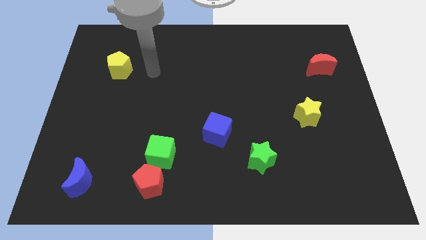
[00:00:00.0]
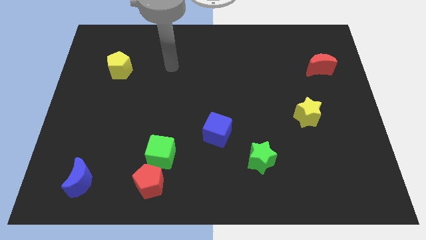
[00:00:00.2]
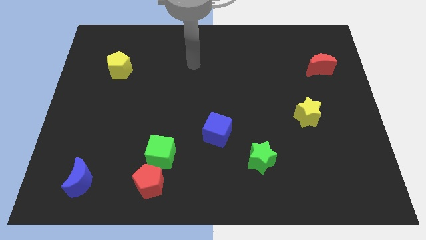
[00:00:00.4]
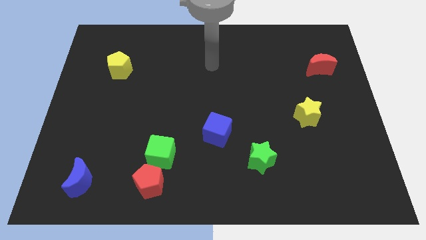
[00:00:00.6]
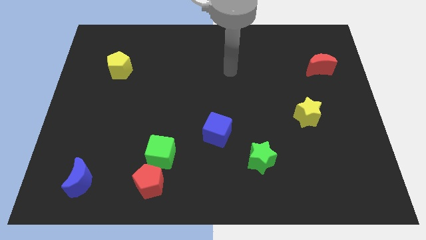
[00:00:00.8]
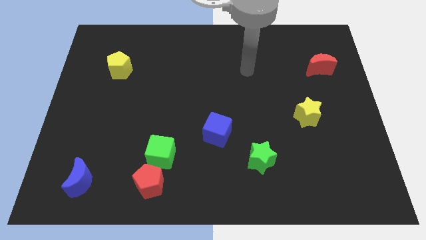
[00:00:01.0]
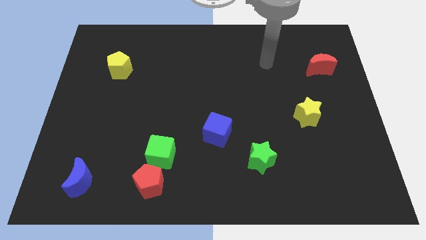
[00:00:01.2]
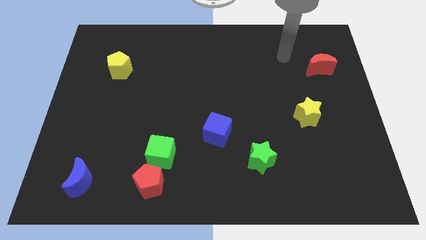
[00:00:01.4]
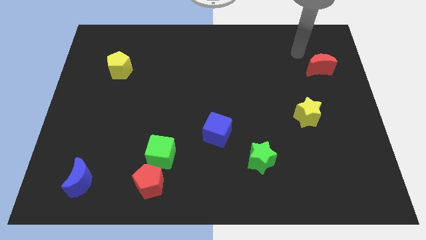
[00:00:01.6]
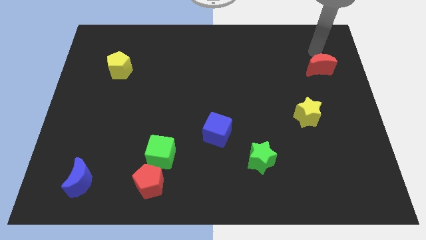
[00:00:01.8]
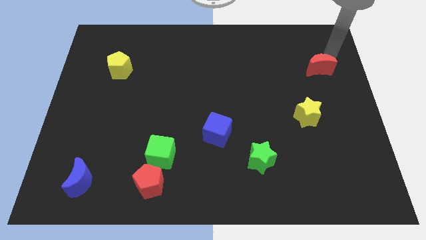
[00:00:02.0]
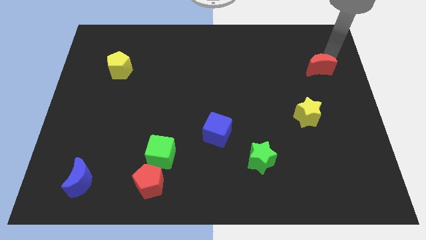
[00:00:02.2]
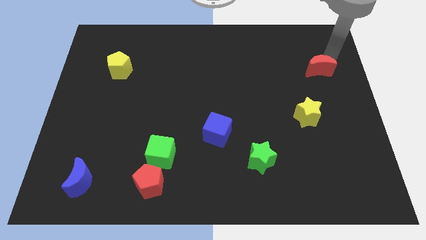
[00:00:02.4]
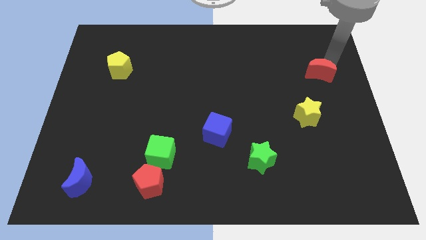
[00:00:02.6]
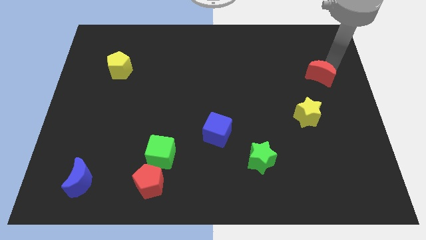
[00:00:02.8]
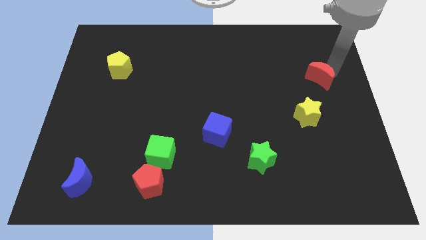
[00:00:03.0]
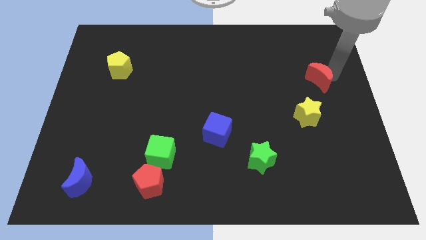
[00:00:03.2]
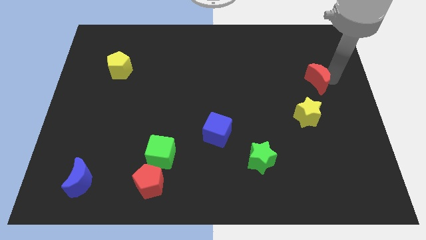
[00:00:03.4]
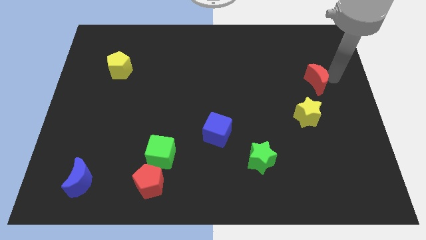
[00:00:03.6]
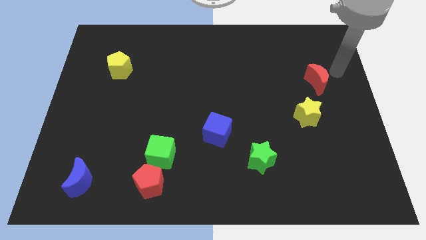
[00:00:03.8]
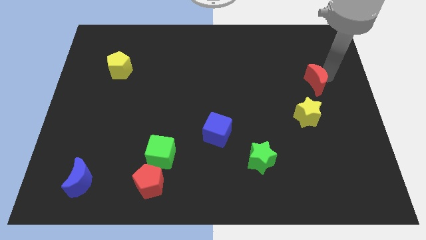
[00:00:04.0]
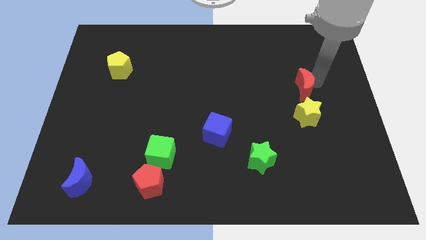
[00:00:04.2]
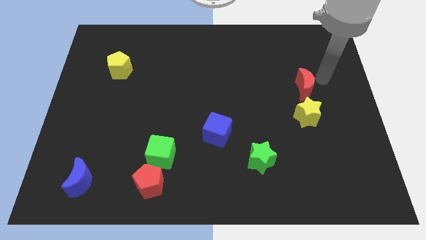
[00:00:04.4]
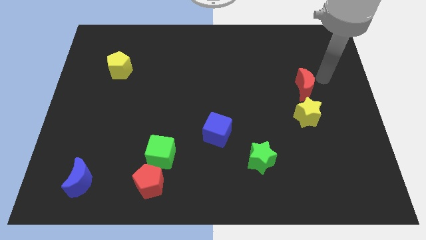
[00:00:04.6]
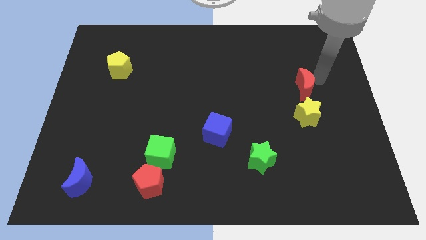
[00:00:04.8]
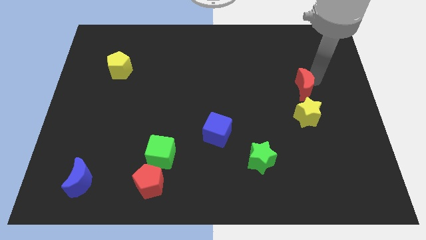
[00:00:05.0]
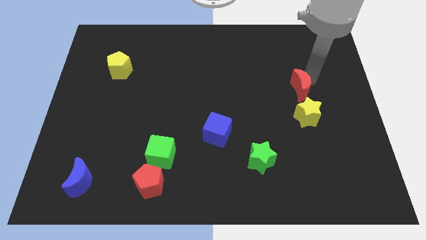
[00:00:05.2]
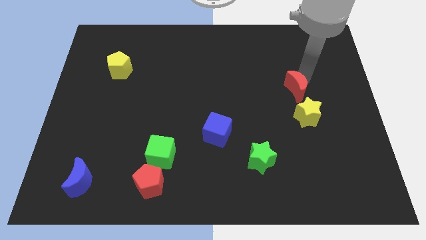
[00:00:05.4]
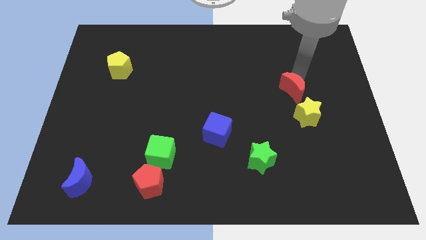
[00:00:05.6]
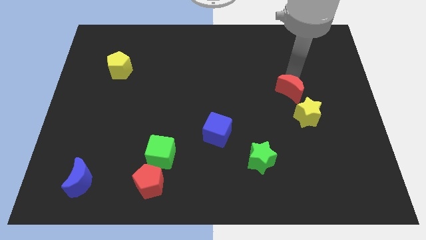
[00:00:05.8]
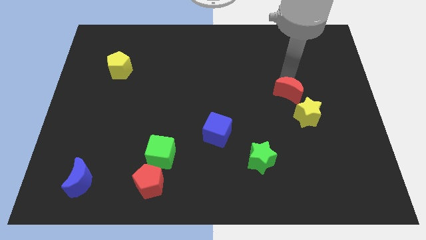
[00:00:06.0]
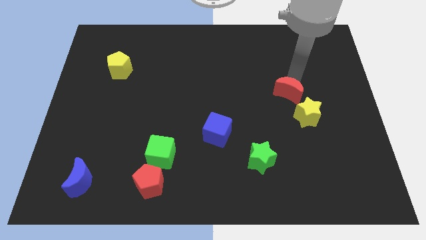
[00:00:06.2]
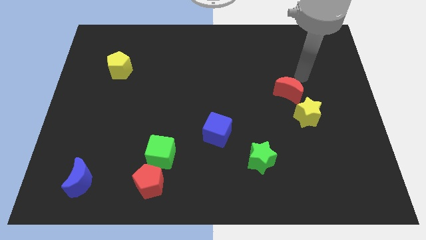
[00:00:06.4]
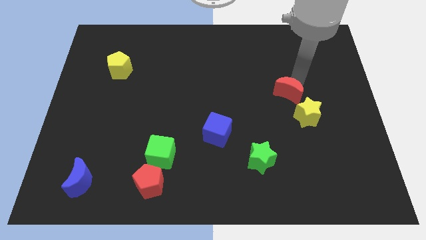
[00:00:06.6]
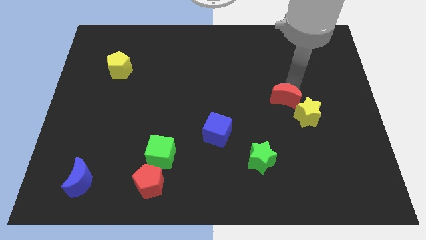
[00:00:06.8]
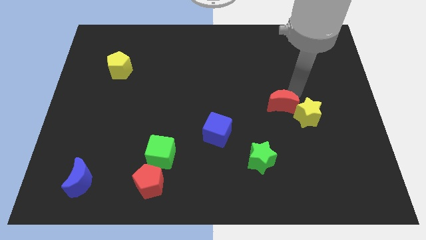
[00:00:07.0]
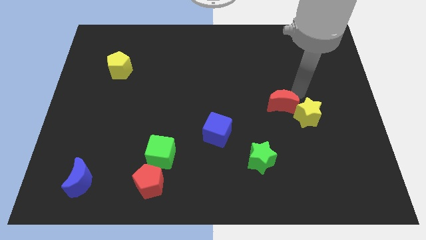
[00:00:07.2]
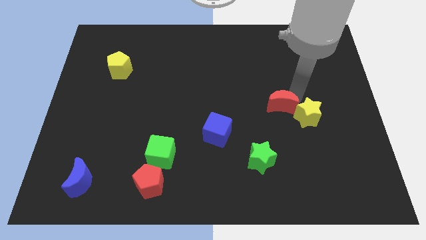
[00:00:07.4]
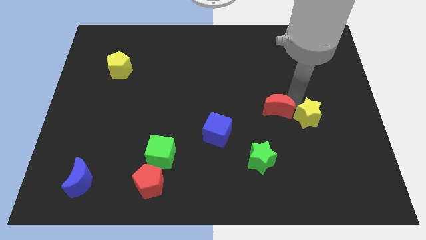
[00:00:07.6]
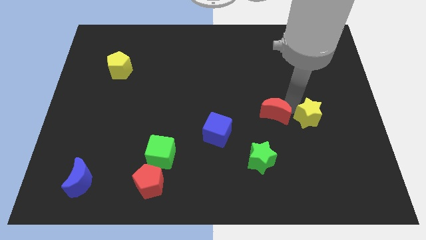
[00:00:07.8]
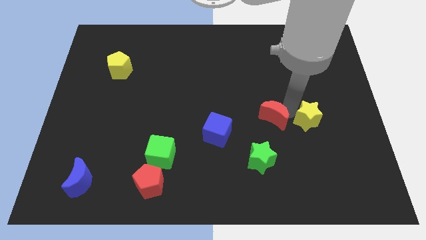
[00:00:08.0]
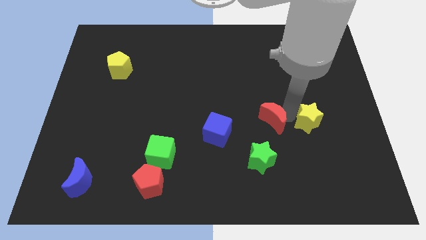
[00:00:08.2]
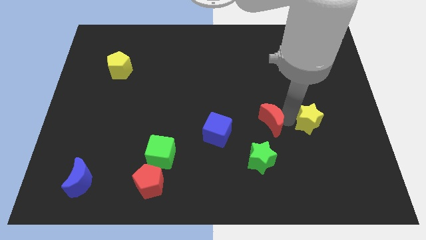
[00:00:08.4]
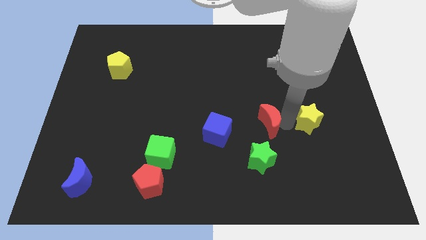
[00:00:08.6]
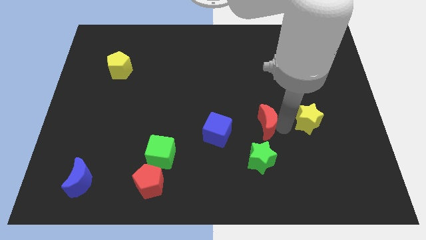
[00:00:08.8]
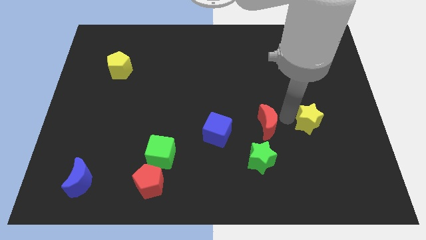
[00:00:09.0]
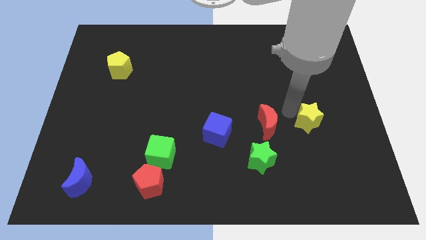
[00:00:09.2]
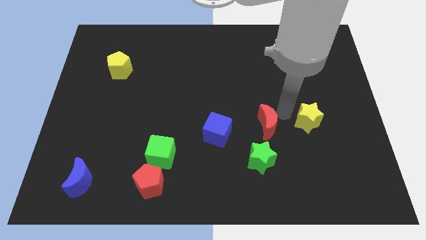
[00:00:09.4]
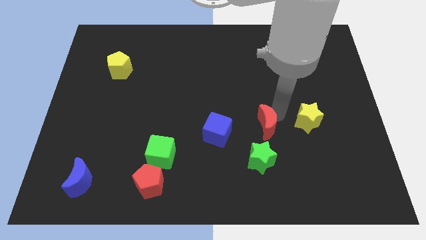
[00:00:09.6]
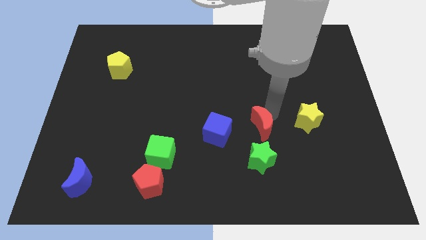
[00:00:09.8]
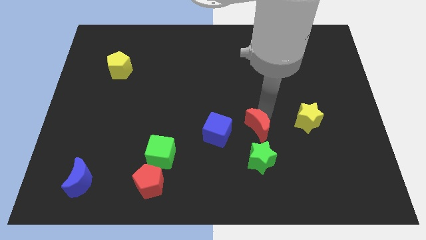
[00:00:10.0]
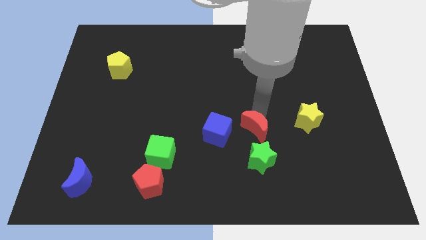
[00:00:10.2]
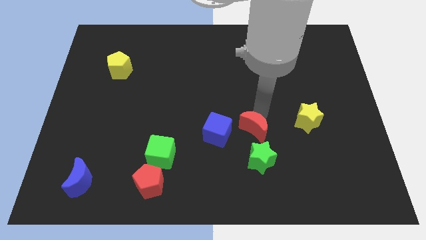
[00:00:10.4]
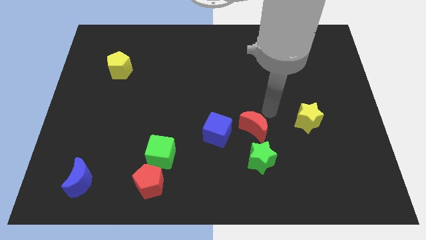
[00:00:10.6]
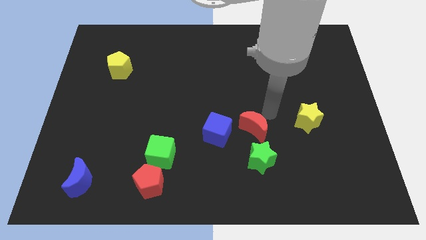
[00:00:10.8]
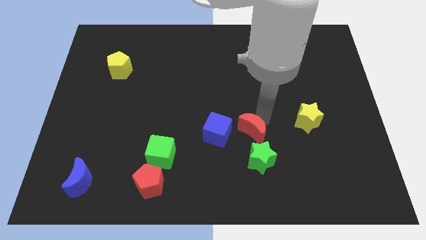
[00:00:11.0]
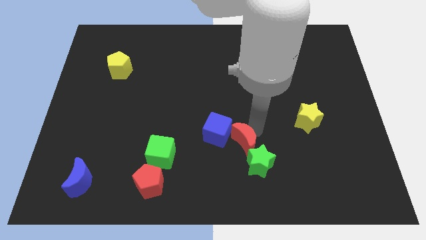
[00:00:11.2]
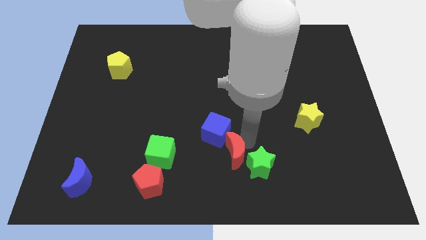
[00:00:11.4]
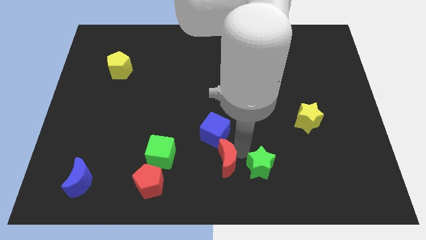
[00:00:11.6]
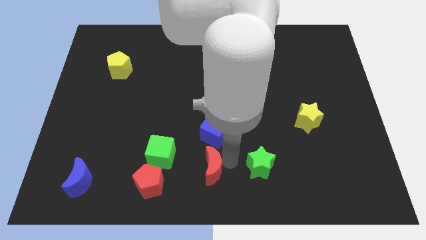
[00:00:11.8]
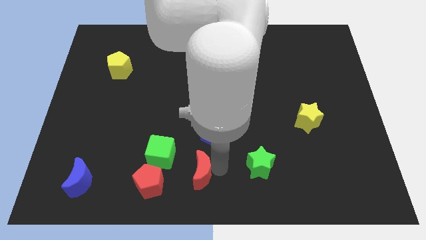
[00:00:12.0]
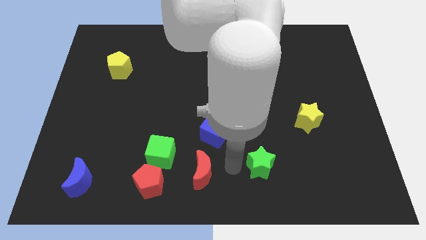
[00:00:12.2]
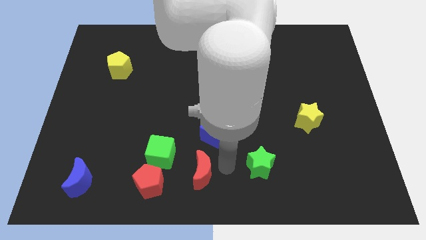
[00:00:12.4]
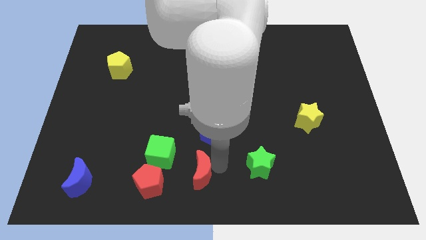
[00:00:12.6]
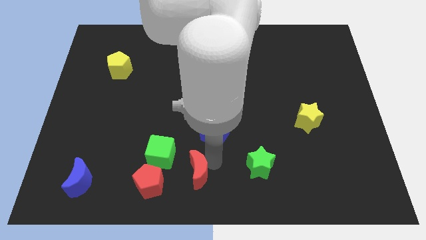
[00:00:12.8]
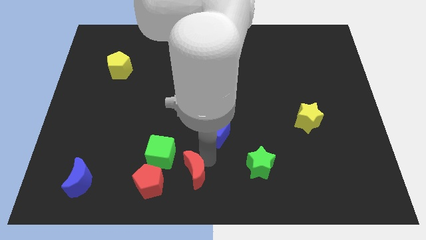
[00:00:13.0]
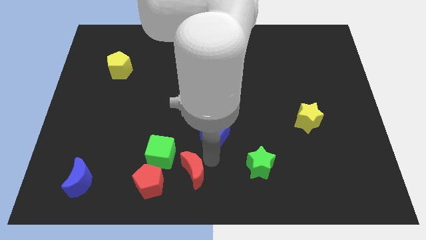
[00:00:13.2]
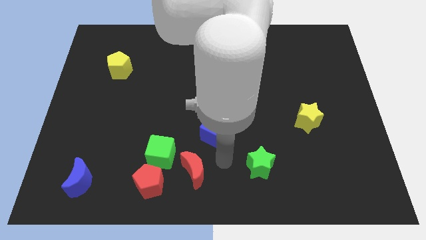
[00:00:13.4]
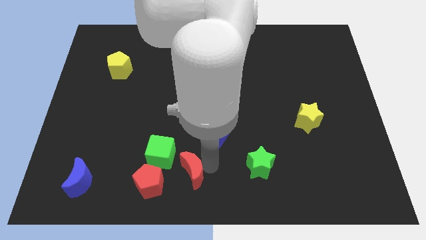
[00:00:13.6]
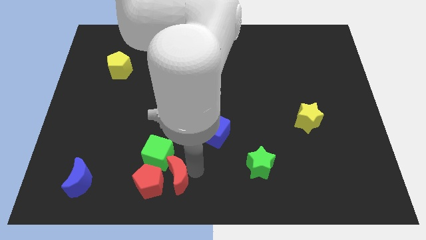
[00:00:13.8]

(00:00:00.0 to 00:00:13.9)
slide the red moon to the red pentagon
